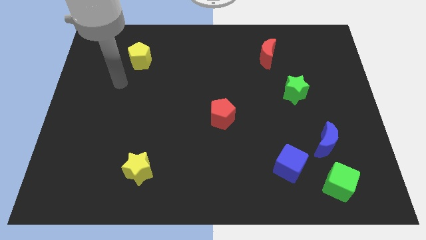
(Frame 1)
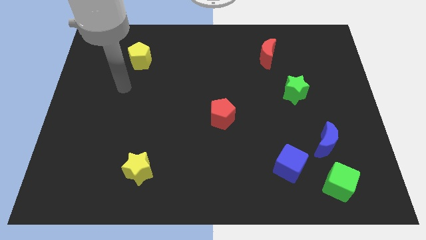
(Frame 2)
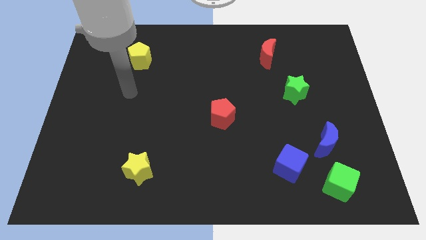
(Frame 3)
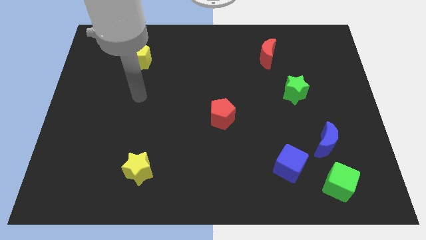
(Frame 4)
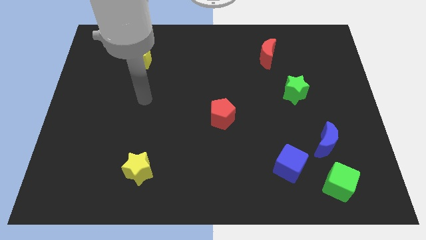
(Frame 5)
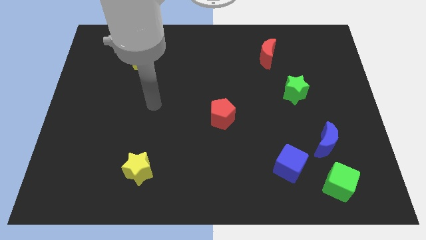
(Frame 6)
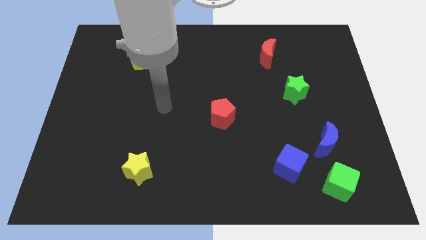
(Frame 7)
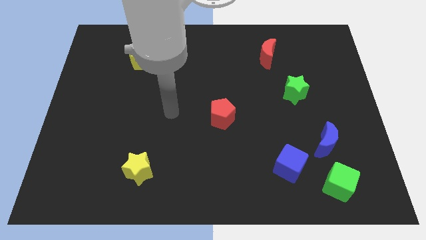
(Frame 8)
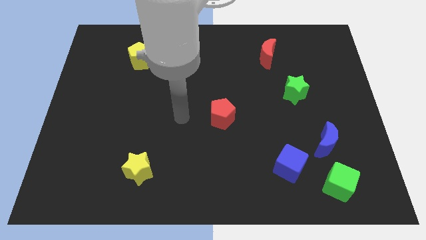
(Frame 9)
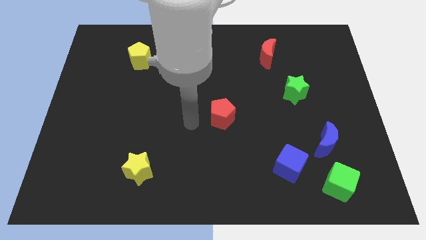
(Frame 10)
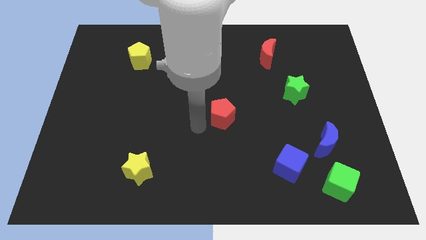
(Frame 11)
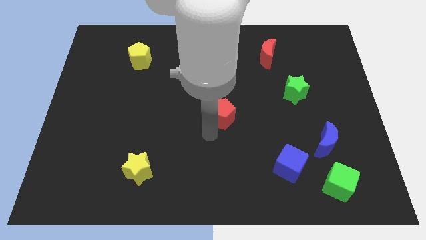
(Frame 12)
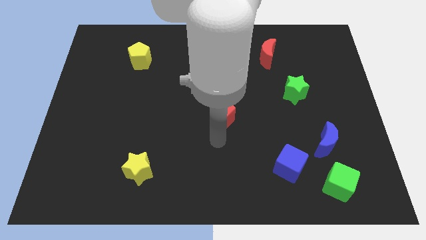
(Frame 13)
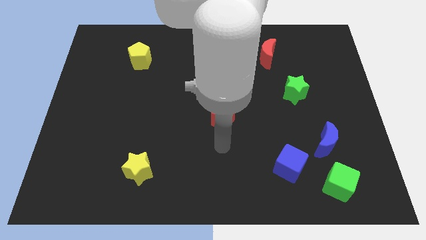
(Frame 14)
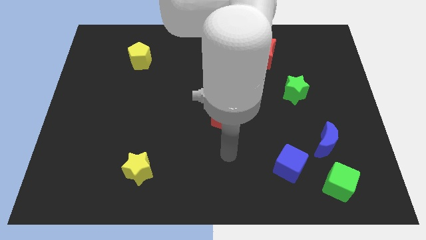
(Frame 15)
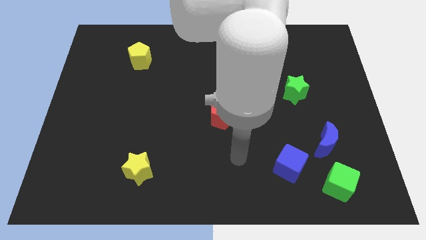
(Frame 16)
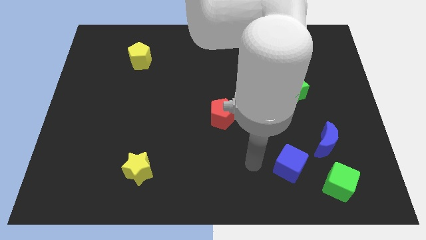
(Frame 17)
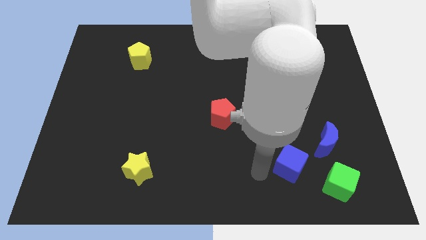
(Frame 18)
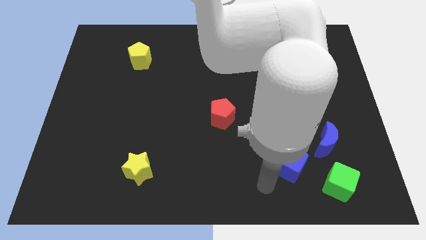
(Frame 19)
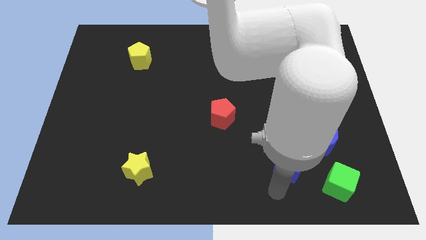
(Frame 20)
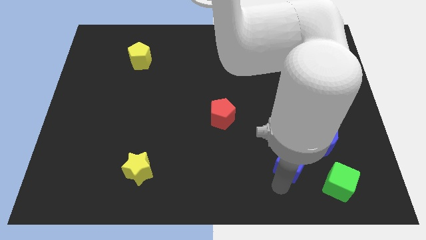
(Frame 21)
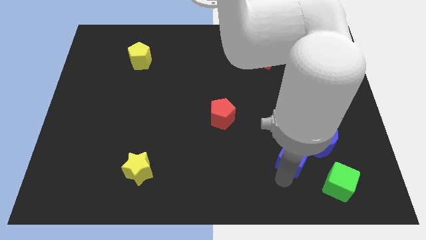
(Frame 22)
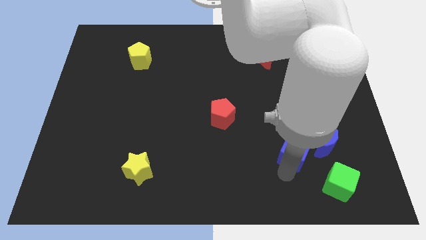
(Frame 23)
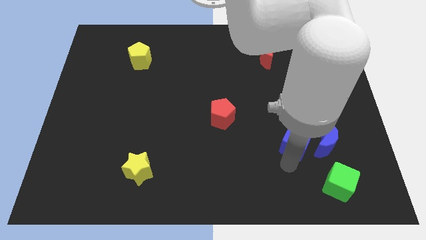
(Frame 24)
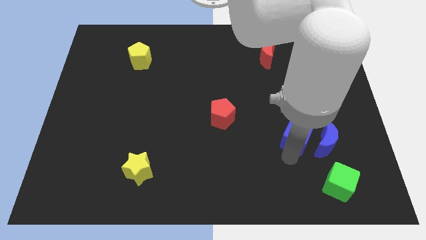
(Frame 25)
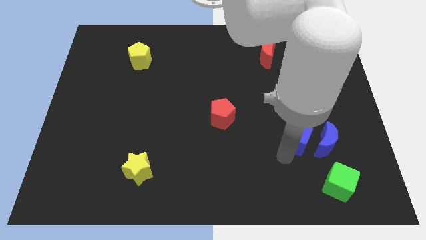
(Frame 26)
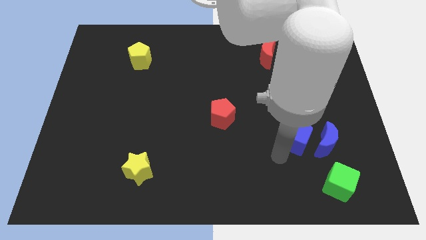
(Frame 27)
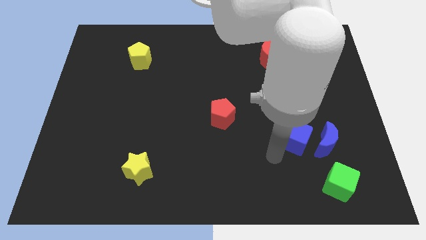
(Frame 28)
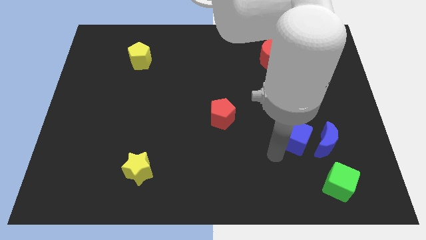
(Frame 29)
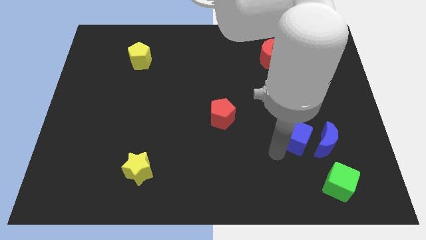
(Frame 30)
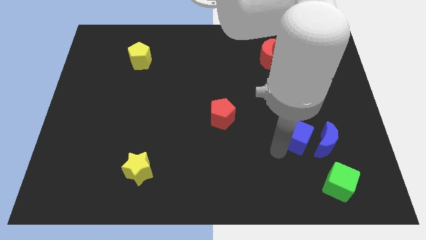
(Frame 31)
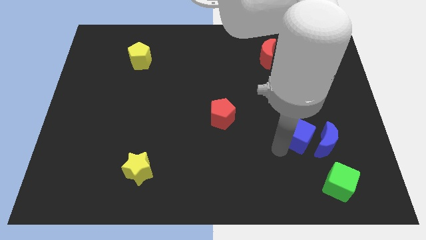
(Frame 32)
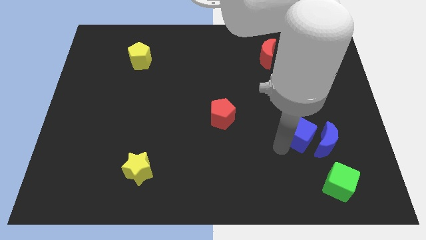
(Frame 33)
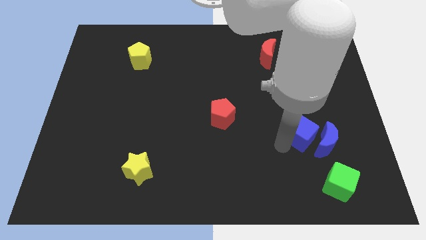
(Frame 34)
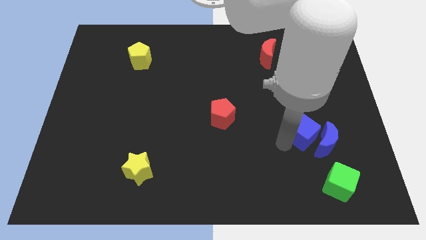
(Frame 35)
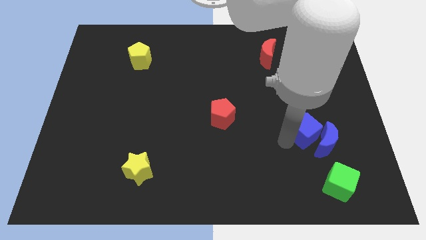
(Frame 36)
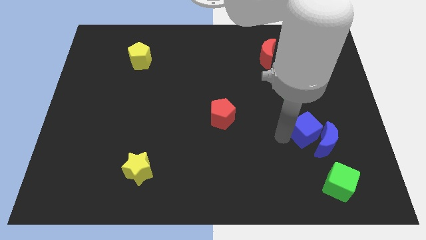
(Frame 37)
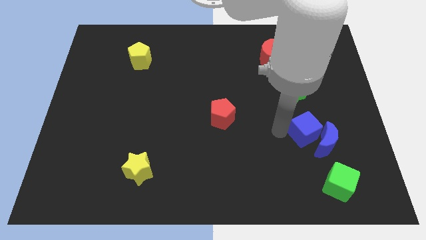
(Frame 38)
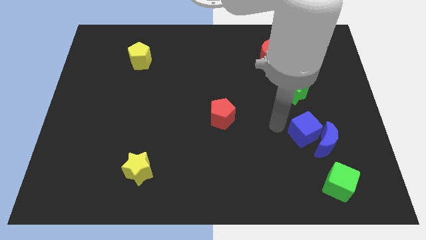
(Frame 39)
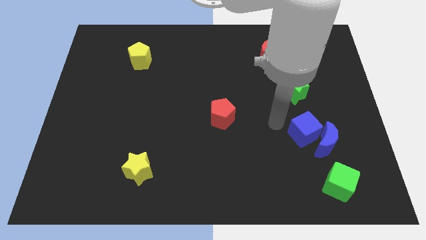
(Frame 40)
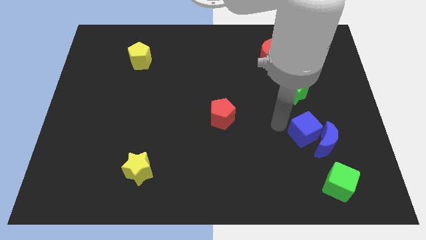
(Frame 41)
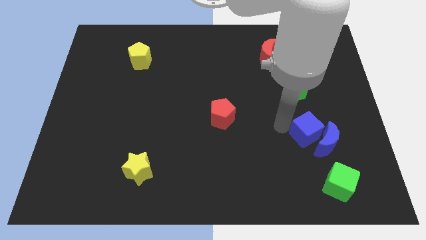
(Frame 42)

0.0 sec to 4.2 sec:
move the blue cube to the top of the green cube

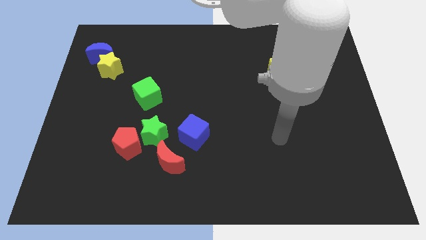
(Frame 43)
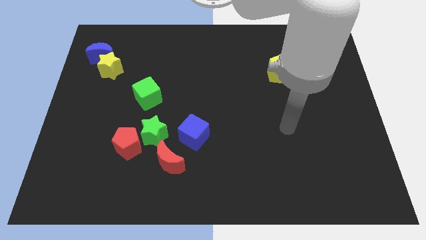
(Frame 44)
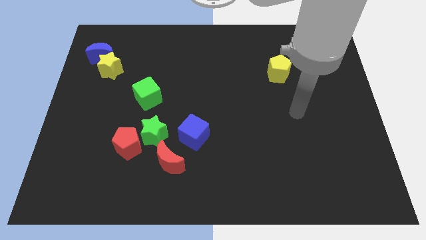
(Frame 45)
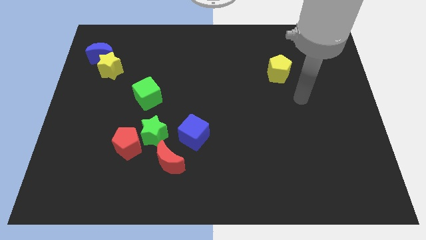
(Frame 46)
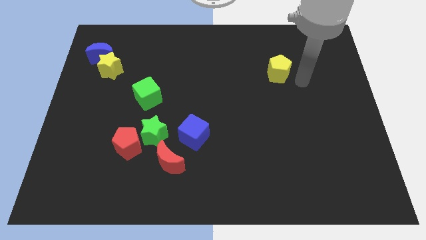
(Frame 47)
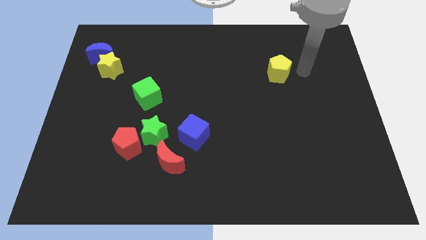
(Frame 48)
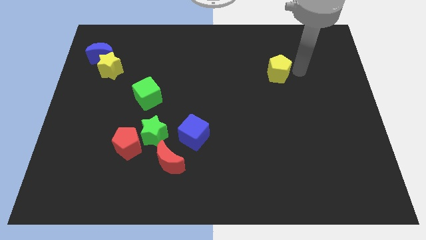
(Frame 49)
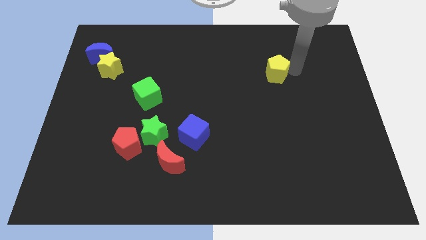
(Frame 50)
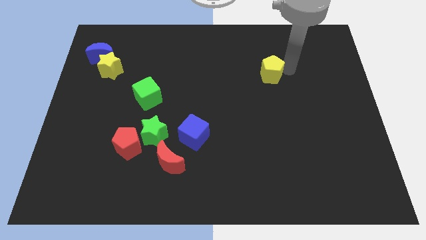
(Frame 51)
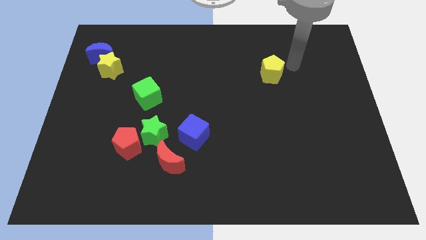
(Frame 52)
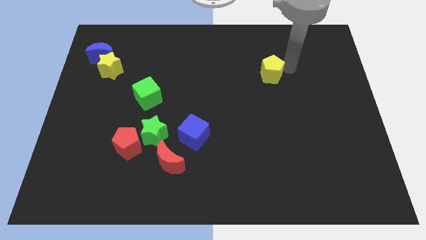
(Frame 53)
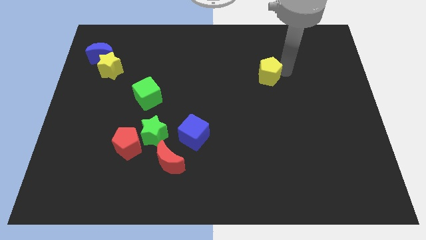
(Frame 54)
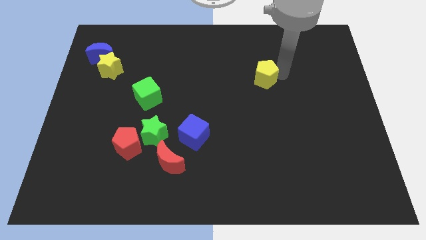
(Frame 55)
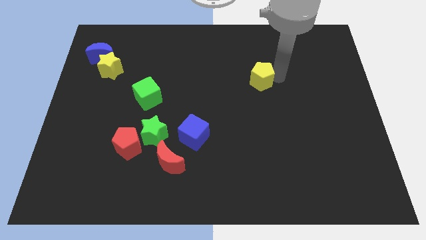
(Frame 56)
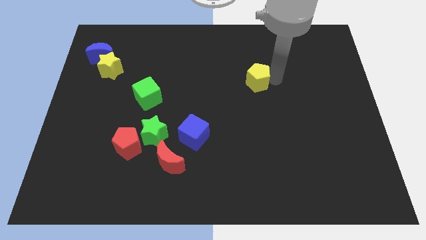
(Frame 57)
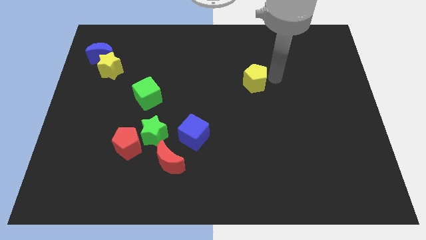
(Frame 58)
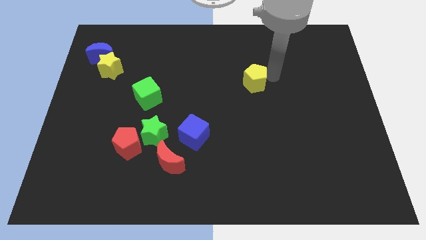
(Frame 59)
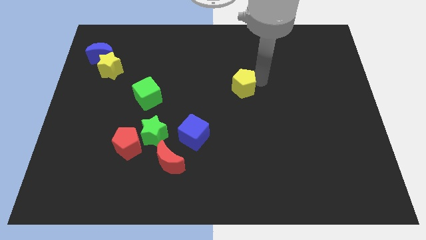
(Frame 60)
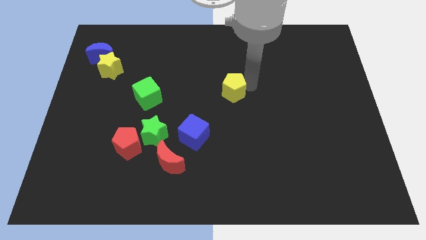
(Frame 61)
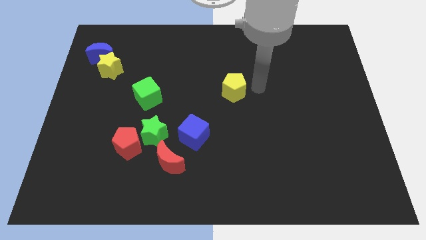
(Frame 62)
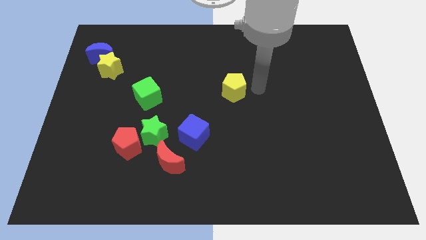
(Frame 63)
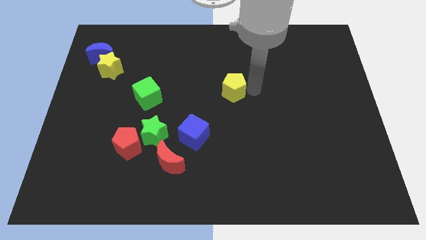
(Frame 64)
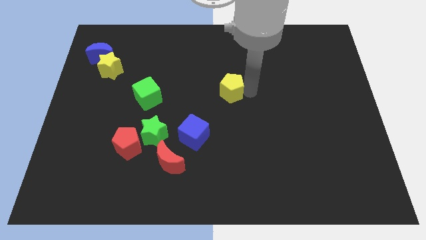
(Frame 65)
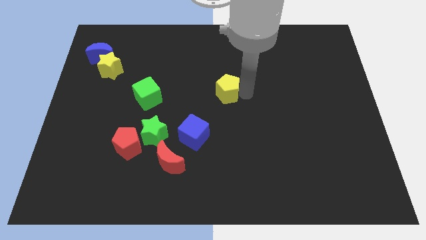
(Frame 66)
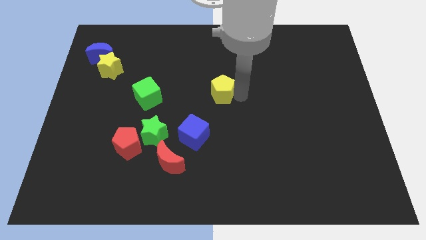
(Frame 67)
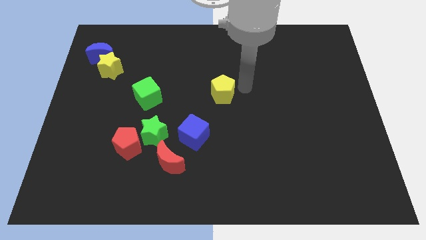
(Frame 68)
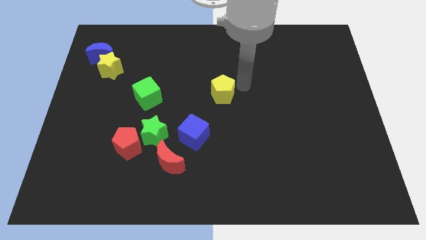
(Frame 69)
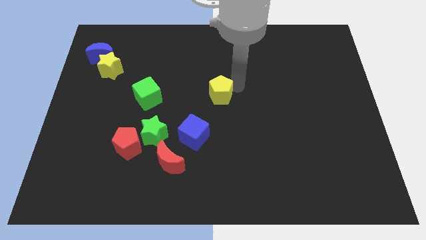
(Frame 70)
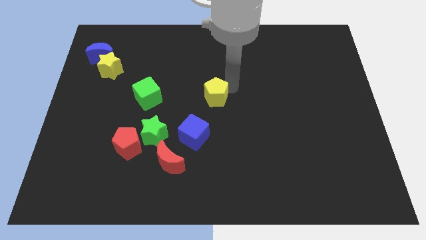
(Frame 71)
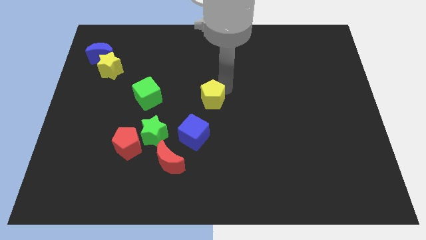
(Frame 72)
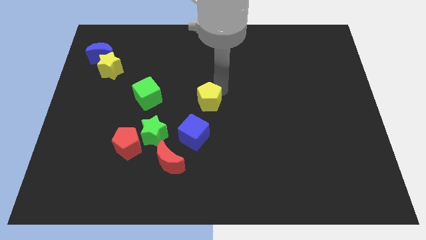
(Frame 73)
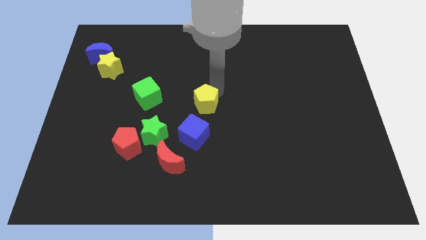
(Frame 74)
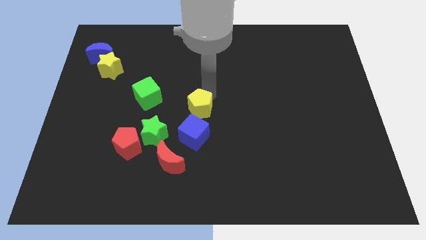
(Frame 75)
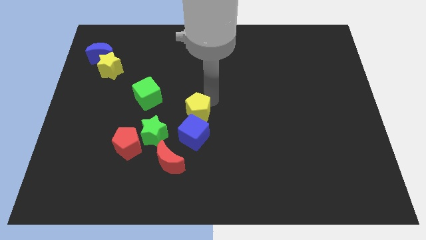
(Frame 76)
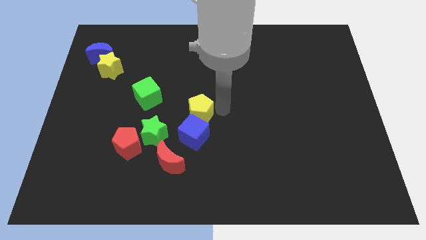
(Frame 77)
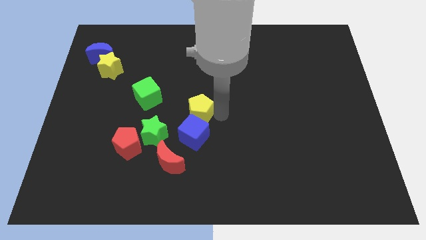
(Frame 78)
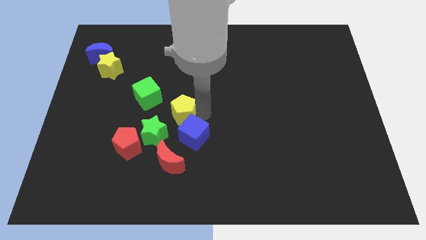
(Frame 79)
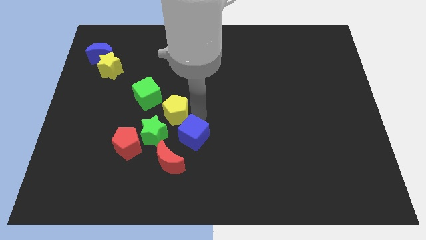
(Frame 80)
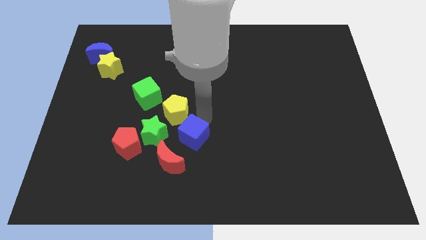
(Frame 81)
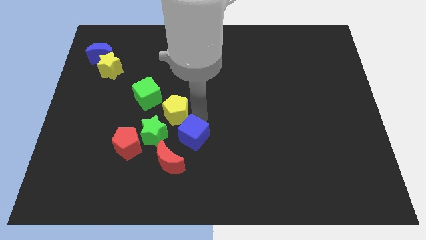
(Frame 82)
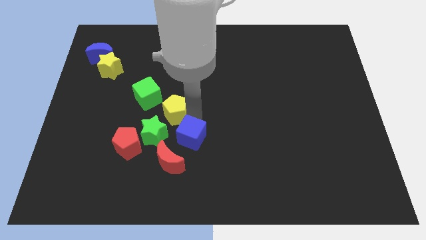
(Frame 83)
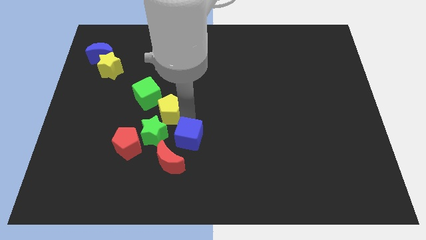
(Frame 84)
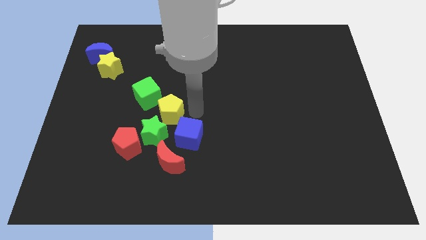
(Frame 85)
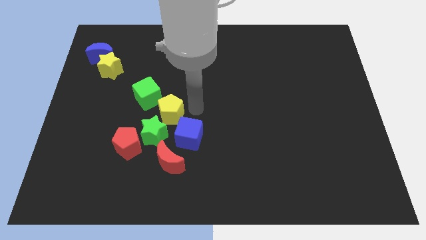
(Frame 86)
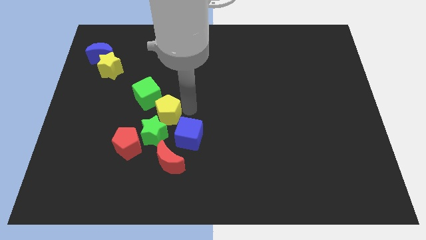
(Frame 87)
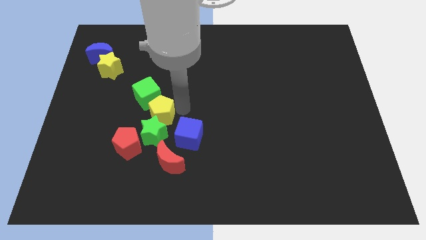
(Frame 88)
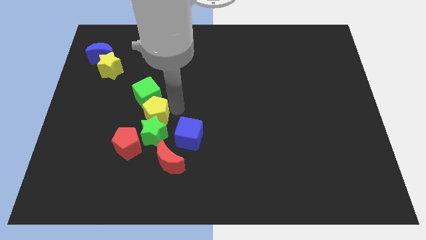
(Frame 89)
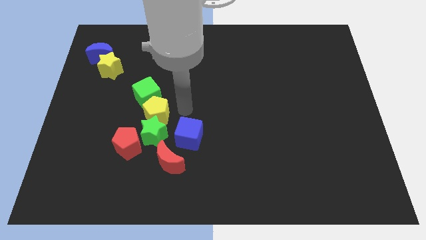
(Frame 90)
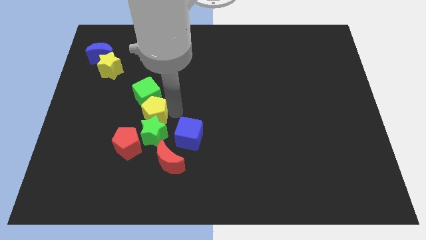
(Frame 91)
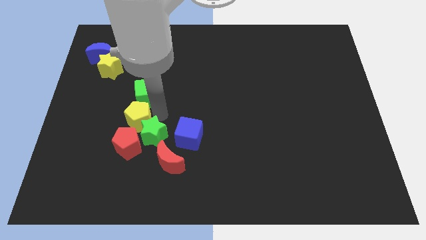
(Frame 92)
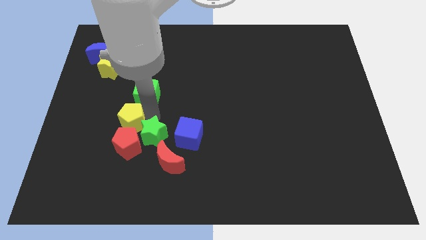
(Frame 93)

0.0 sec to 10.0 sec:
slide the yellow pentagon to the top left side of the red pentagon
